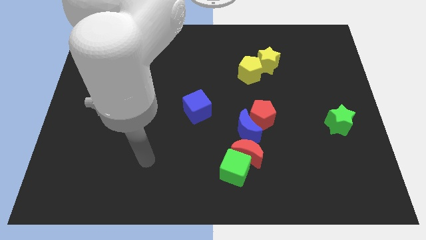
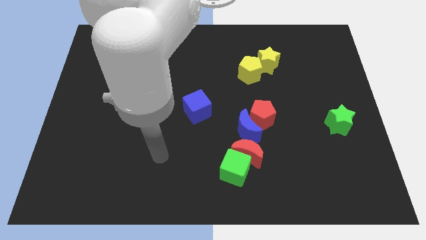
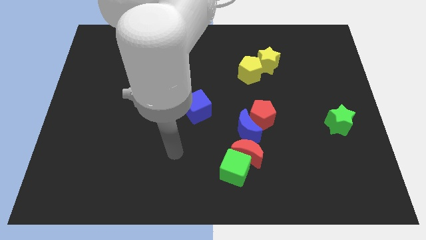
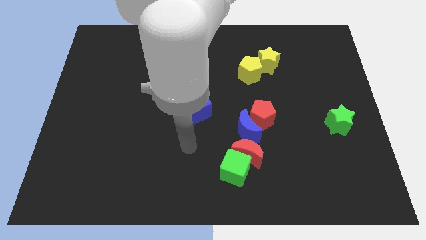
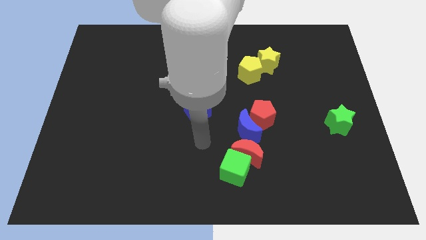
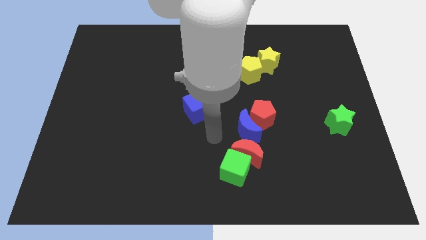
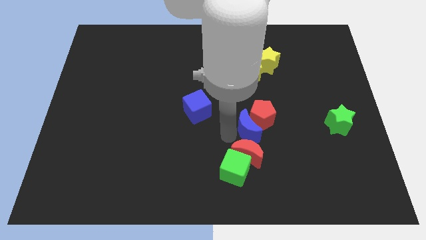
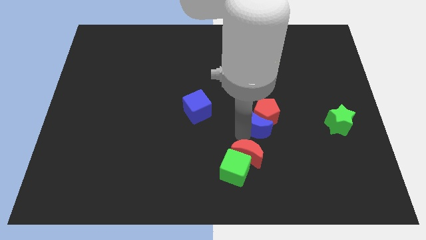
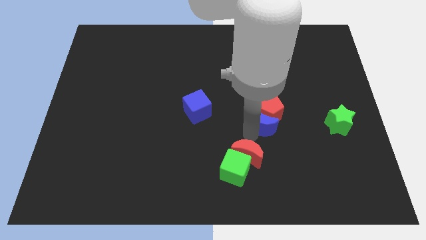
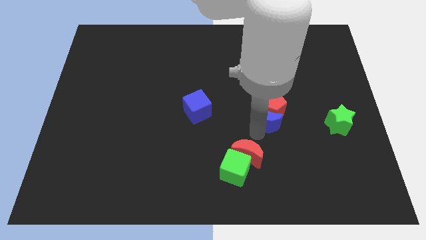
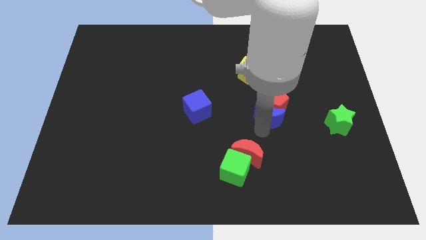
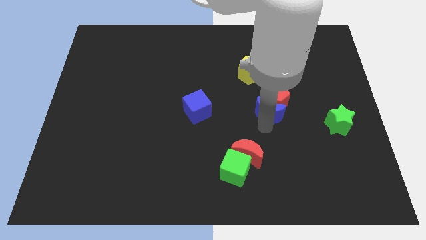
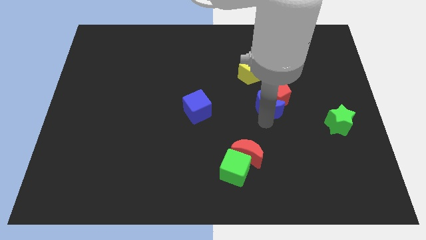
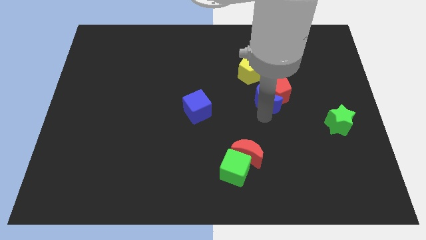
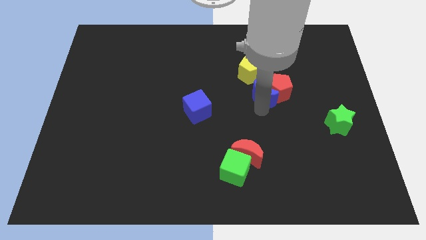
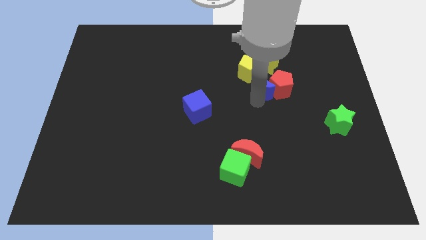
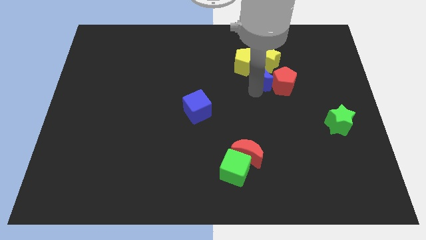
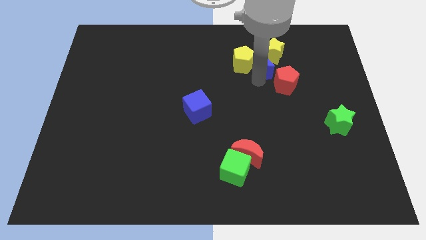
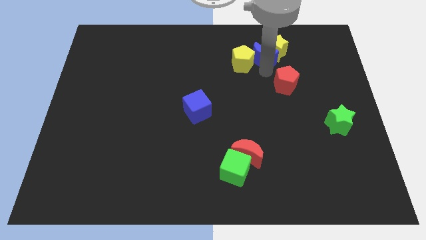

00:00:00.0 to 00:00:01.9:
pull the red pentagon apart from the blue moon

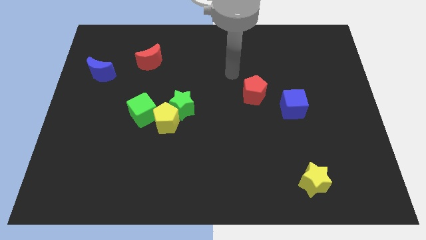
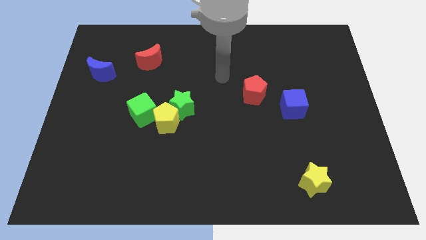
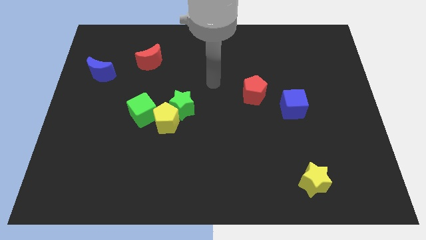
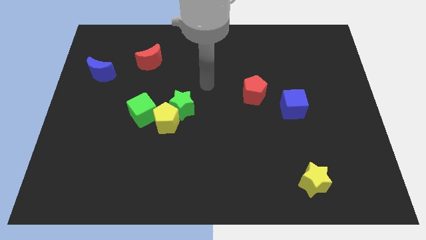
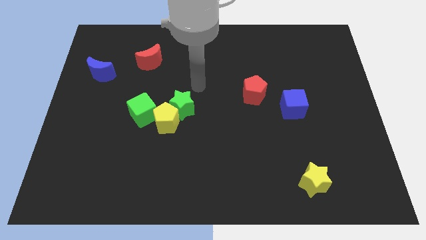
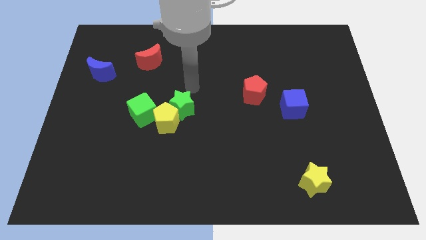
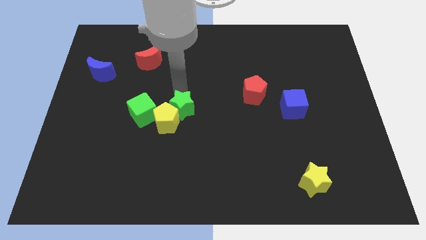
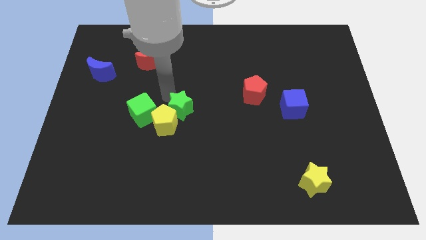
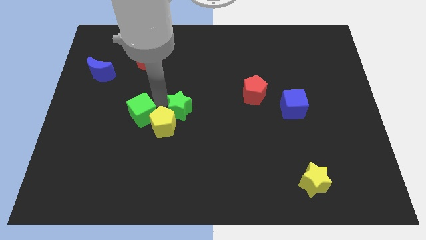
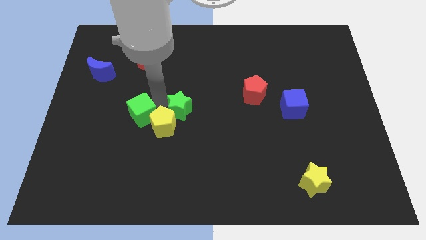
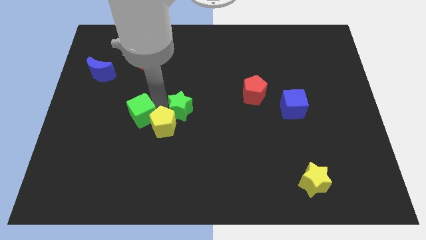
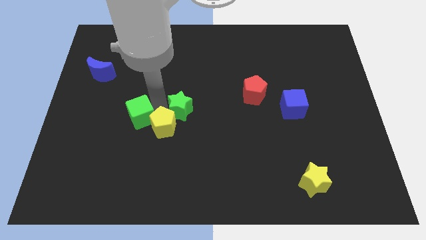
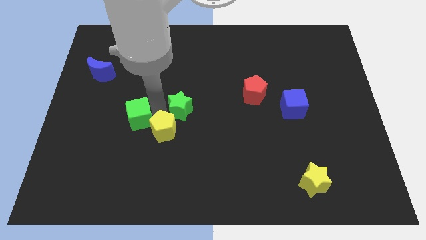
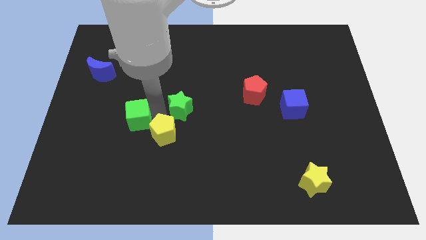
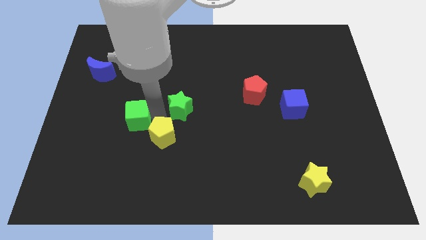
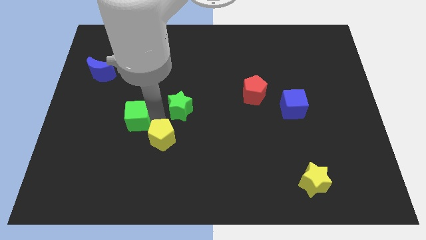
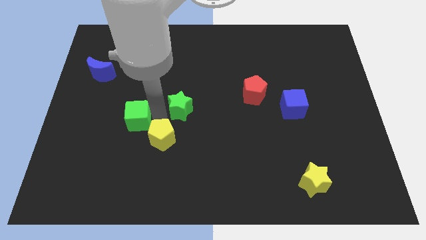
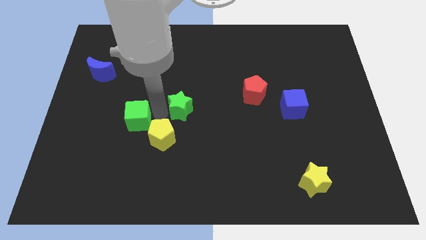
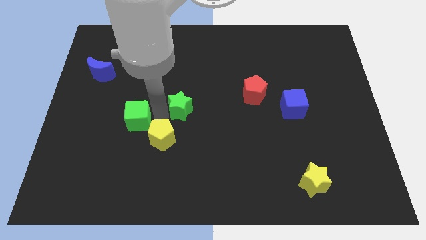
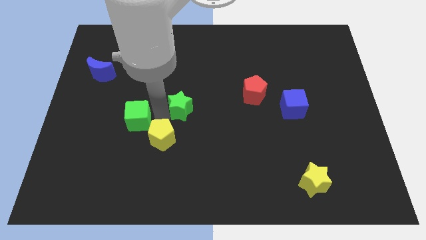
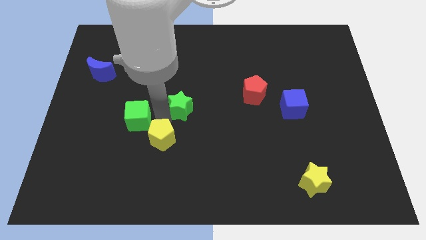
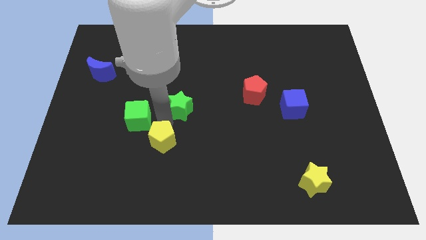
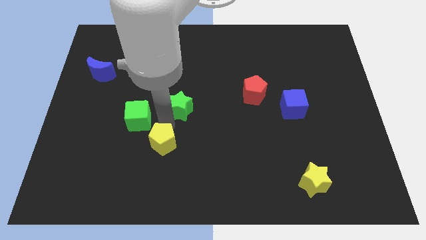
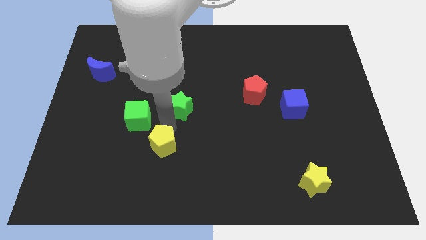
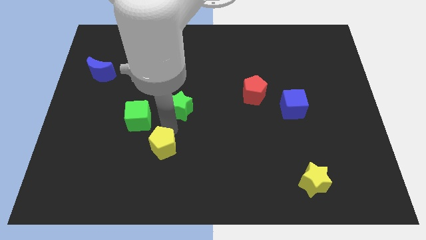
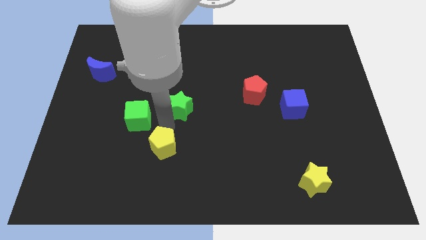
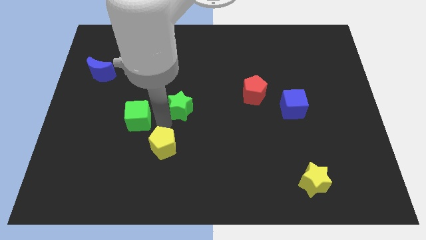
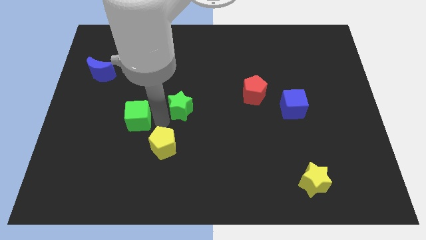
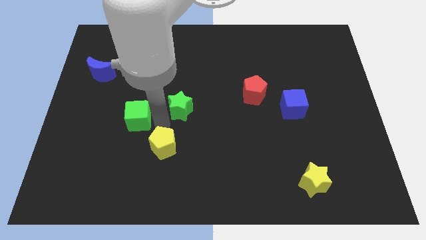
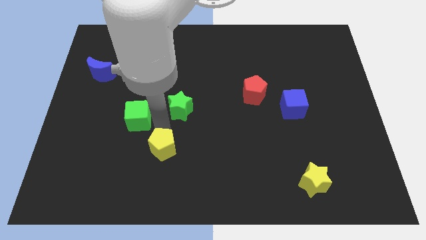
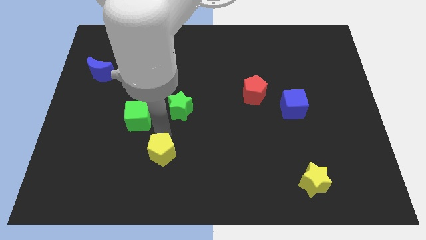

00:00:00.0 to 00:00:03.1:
move the yellow pentagon away from the green star and green cube

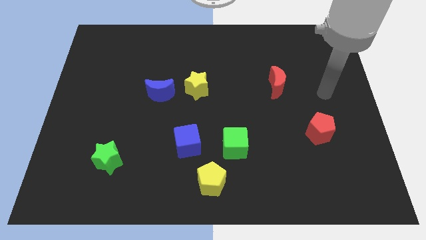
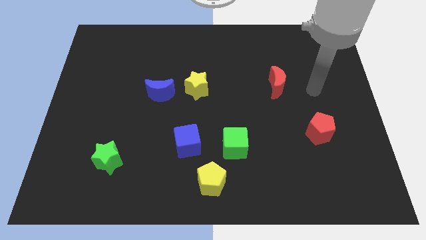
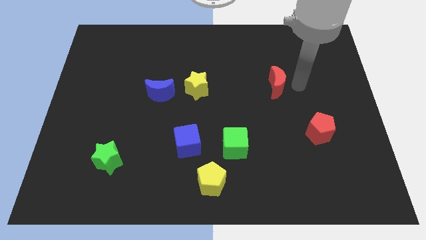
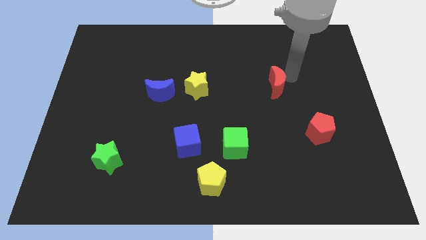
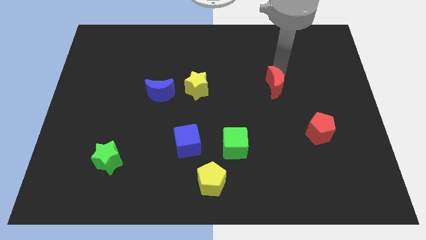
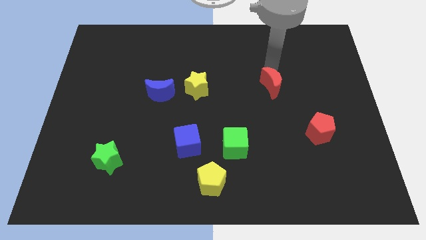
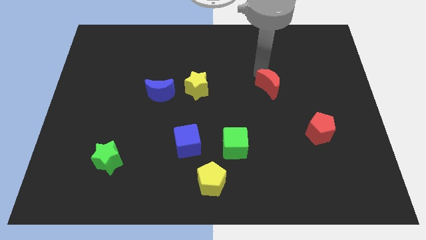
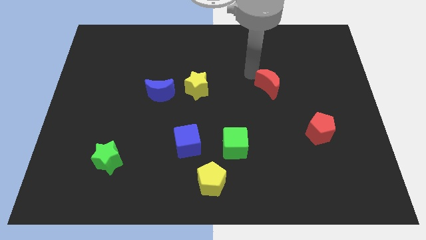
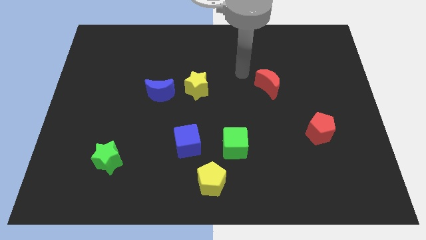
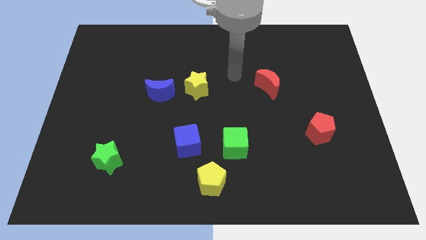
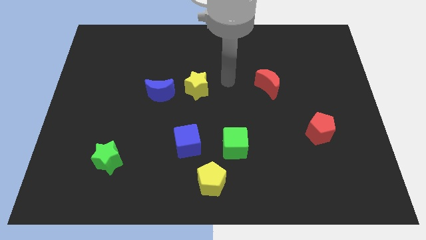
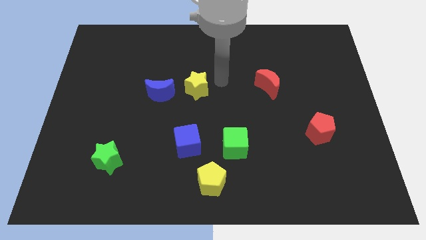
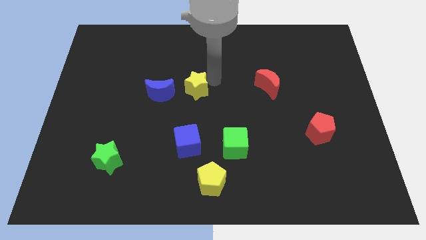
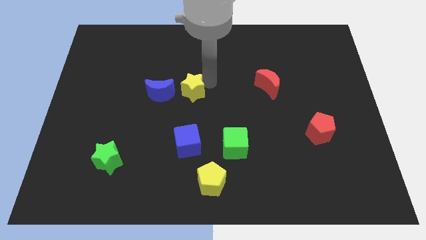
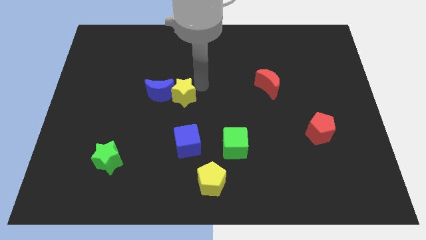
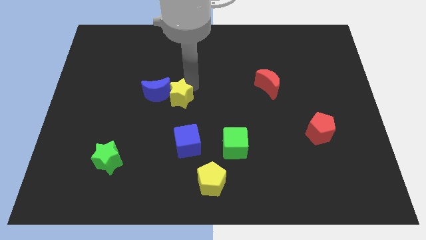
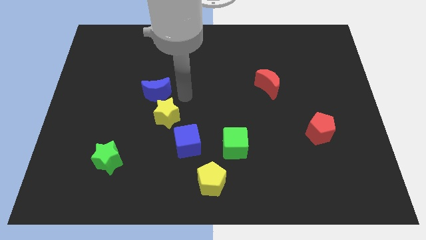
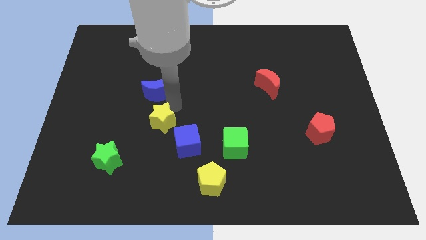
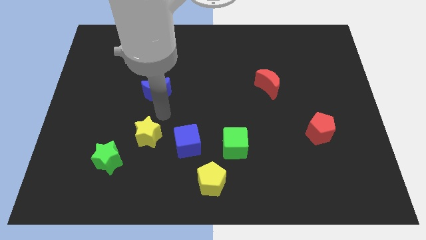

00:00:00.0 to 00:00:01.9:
move the blue moon away from the yellow star

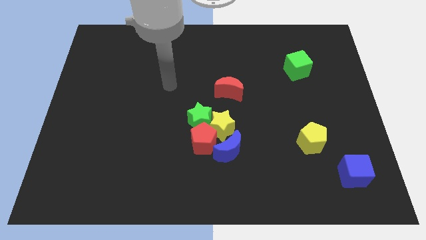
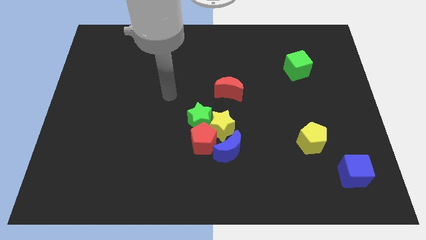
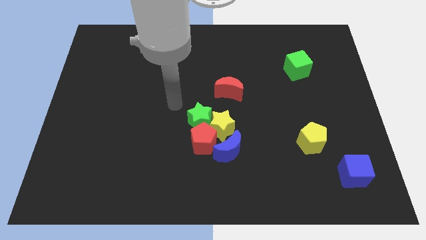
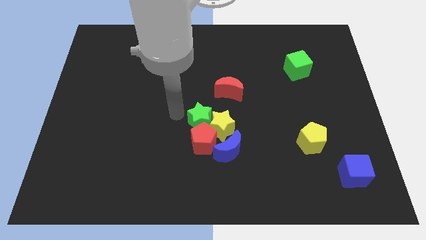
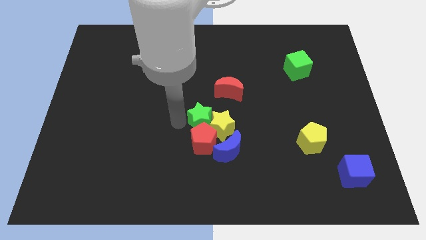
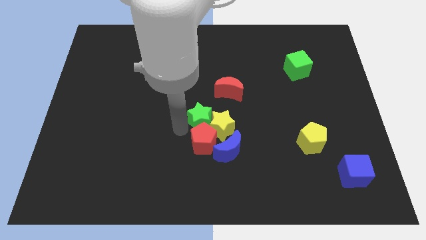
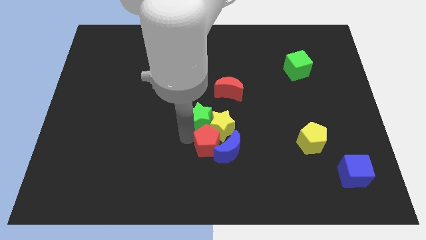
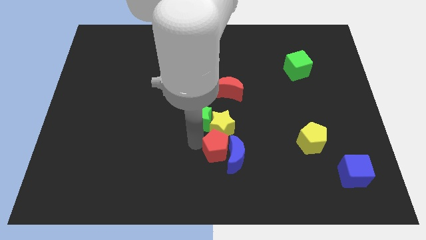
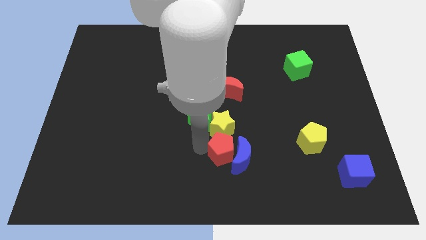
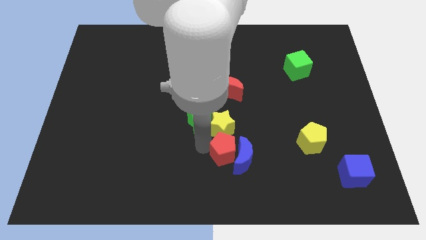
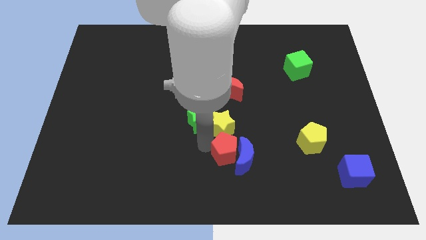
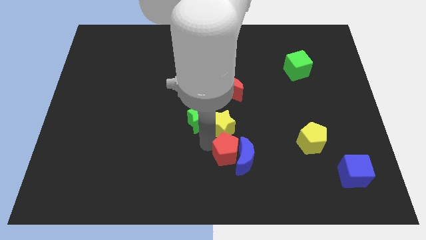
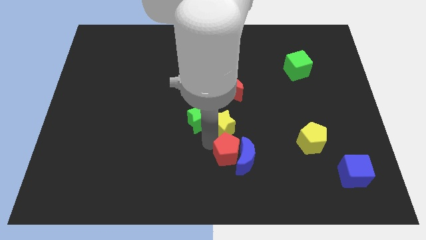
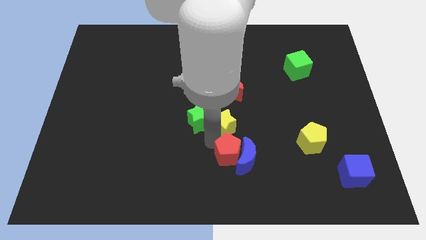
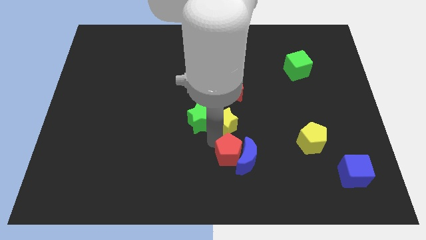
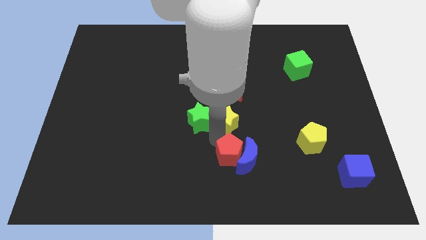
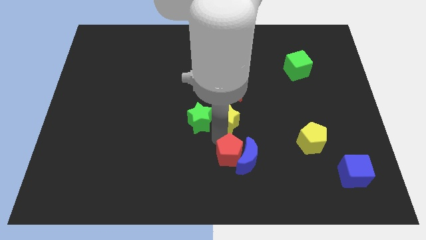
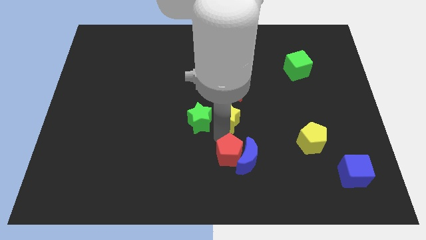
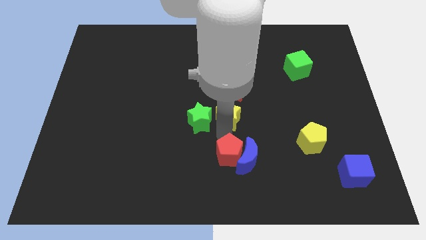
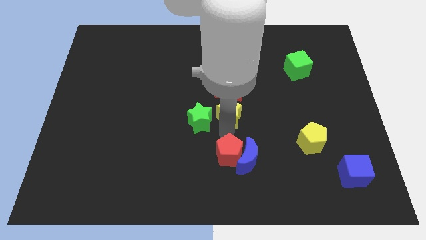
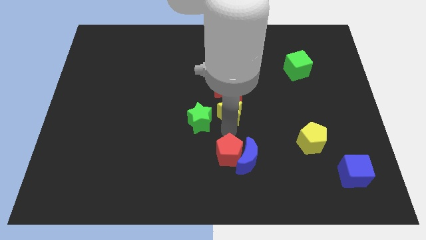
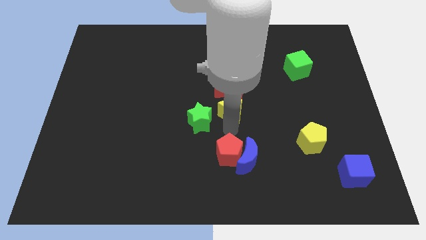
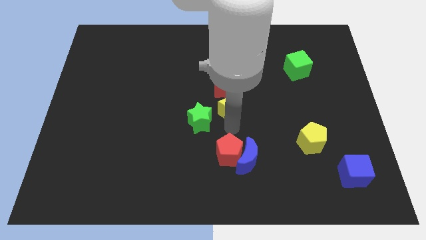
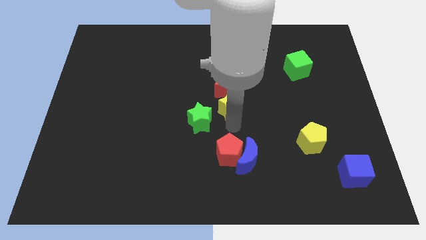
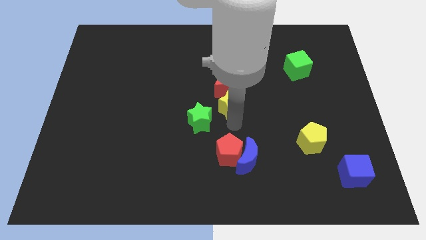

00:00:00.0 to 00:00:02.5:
pull the yellow star apart from the red pentagon, green star, and blue moon
